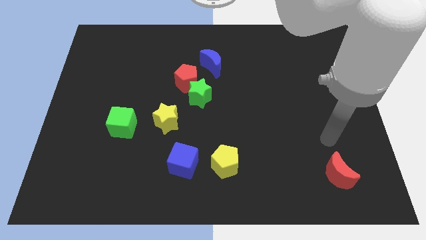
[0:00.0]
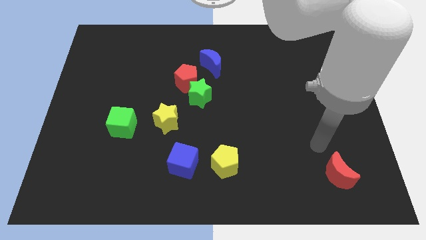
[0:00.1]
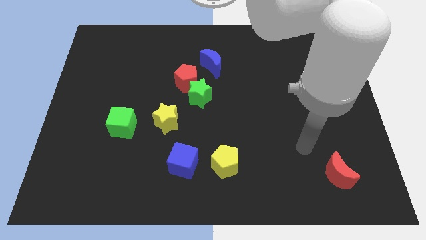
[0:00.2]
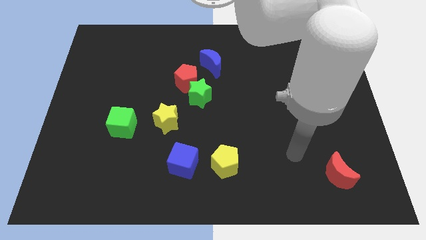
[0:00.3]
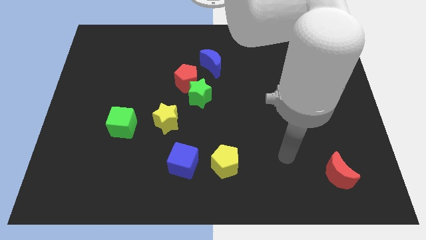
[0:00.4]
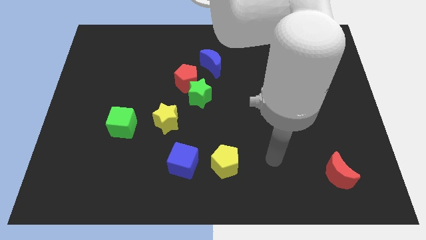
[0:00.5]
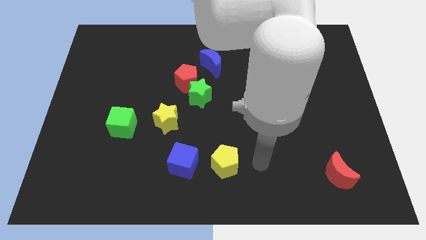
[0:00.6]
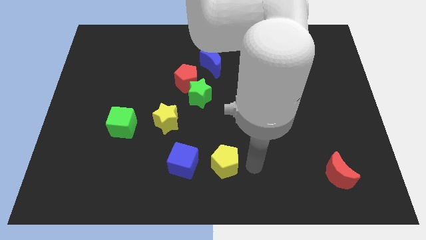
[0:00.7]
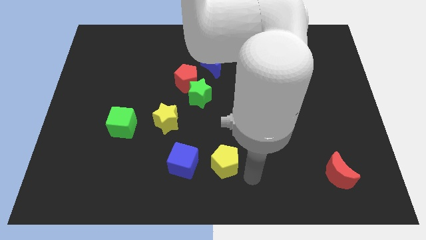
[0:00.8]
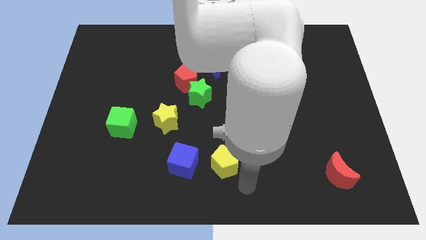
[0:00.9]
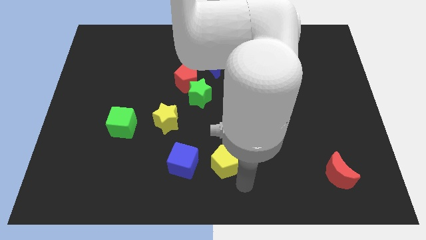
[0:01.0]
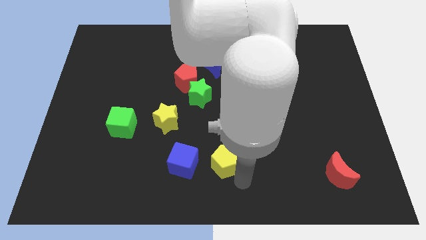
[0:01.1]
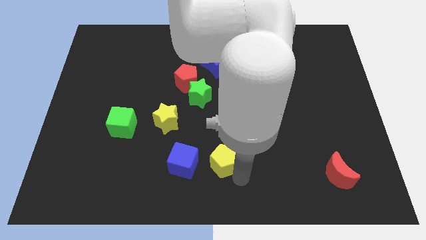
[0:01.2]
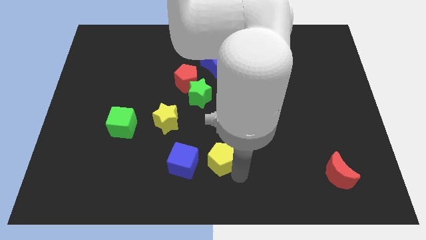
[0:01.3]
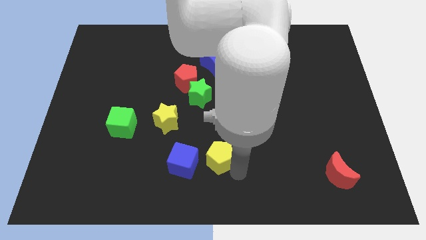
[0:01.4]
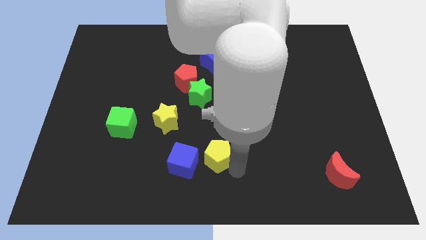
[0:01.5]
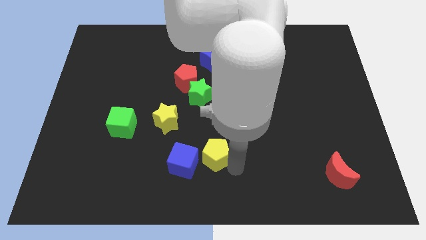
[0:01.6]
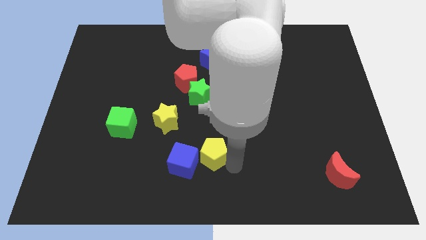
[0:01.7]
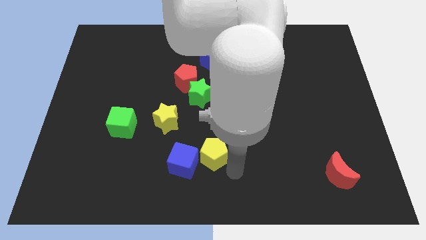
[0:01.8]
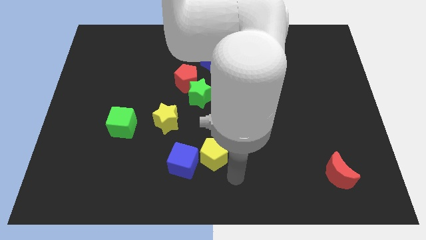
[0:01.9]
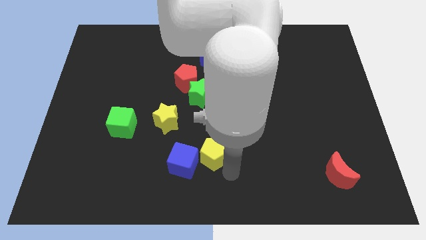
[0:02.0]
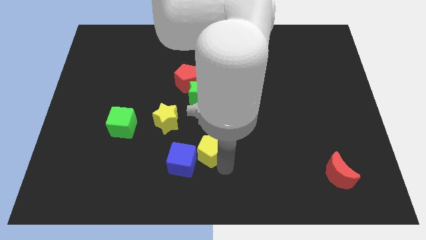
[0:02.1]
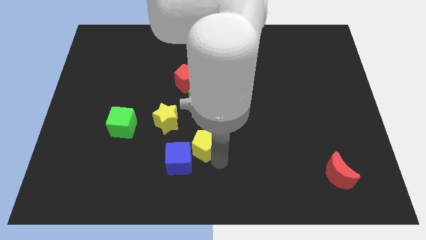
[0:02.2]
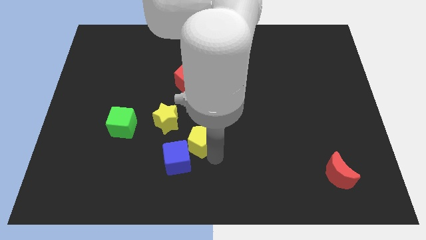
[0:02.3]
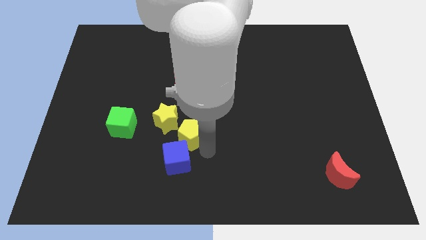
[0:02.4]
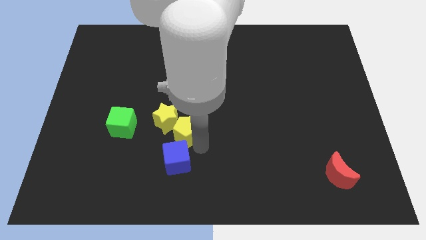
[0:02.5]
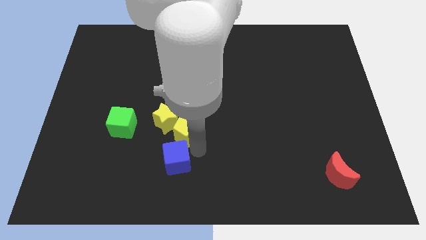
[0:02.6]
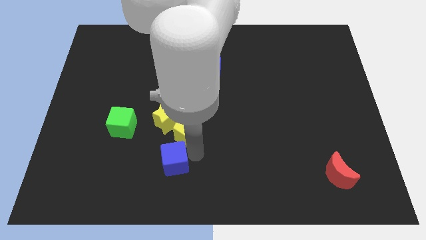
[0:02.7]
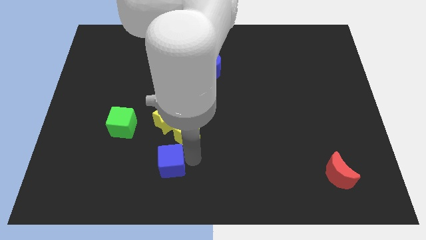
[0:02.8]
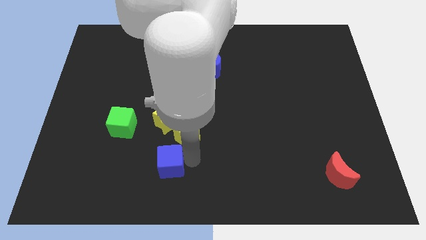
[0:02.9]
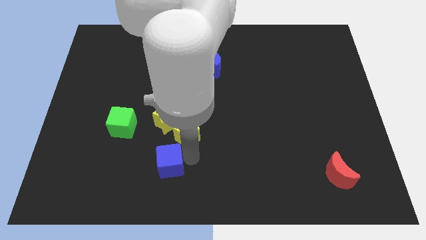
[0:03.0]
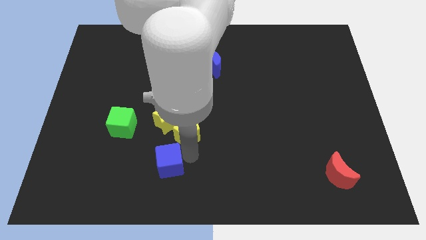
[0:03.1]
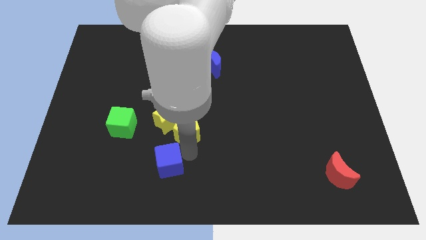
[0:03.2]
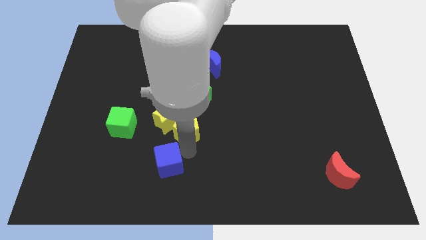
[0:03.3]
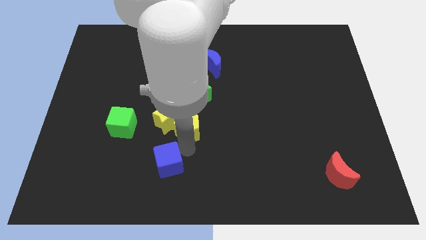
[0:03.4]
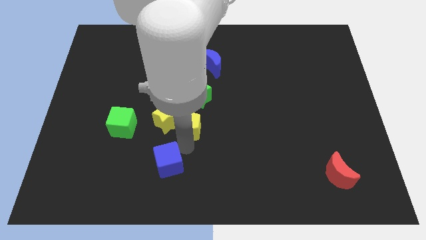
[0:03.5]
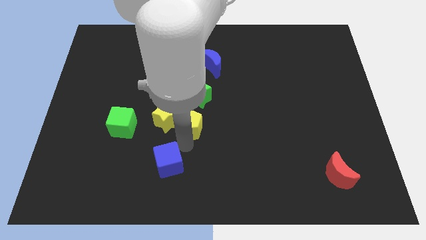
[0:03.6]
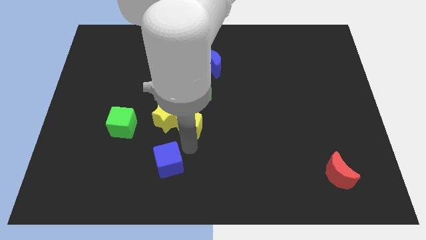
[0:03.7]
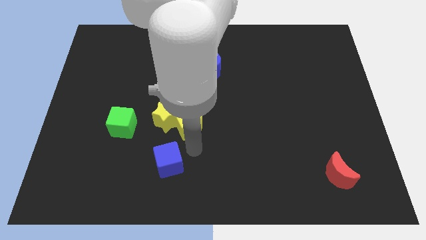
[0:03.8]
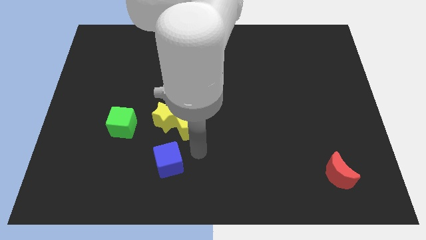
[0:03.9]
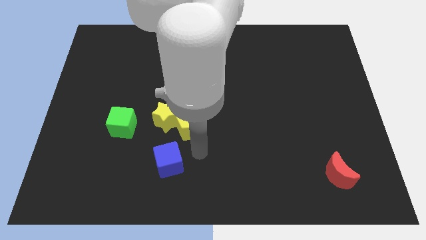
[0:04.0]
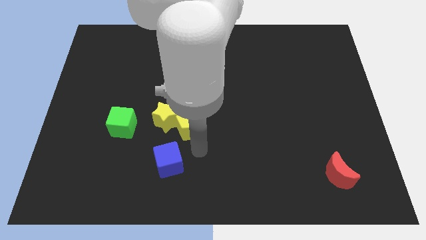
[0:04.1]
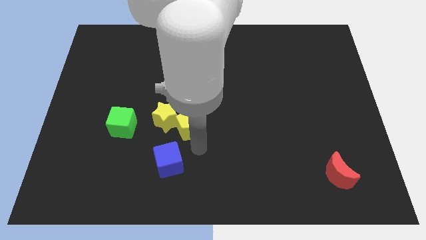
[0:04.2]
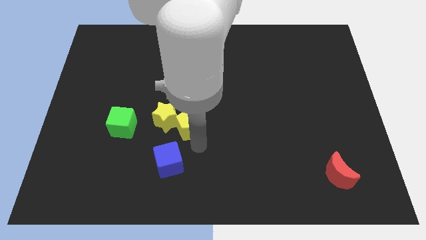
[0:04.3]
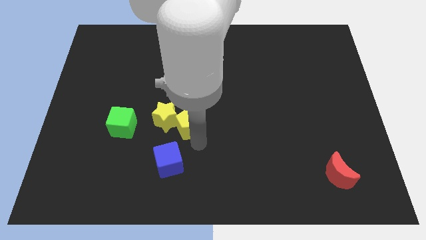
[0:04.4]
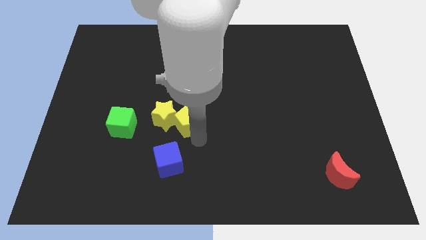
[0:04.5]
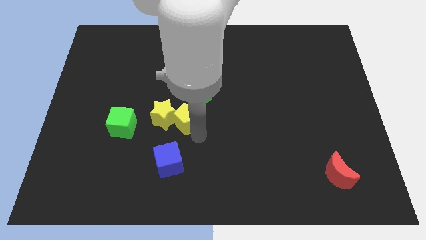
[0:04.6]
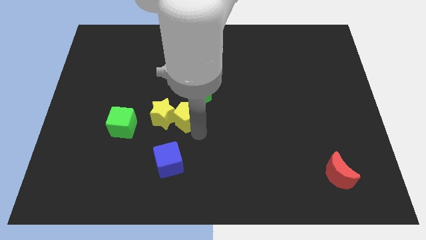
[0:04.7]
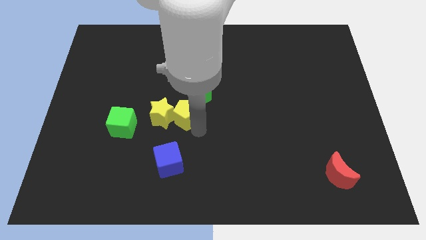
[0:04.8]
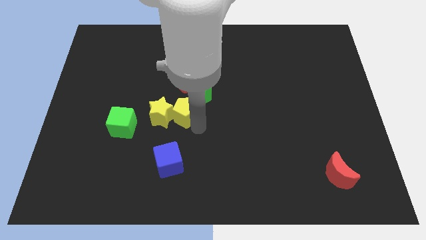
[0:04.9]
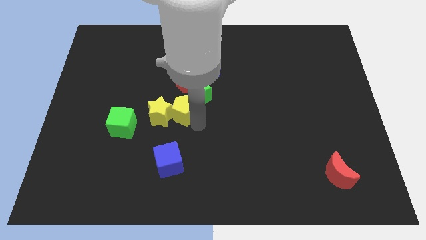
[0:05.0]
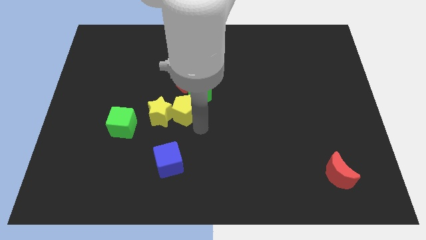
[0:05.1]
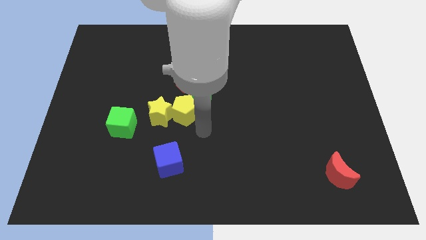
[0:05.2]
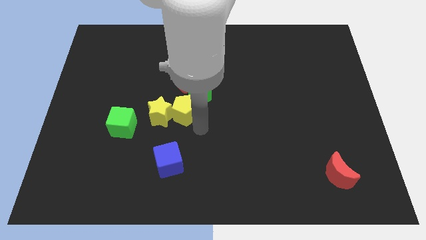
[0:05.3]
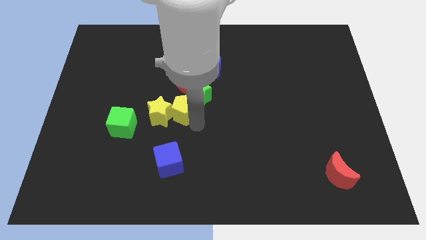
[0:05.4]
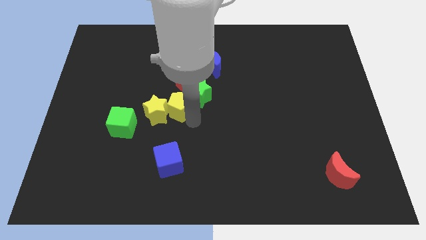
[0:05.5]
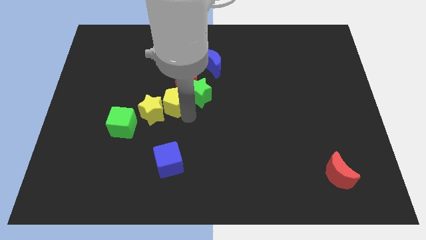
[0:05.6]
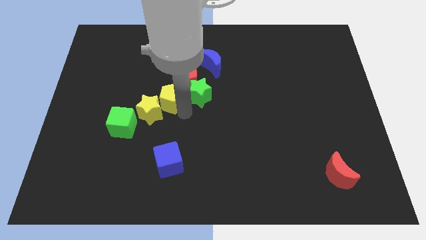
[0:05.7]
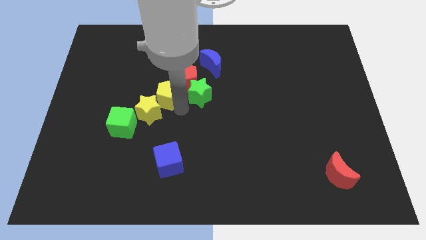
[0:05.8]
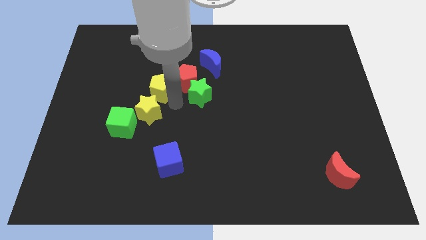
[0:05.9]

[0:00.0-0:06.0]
move the yellow pentagon just left of the red pentagon

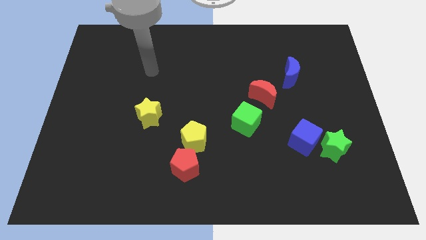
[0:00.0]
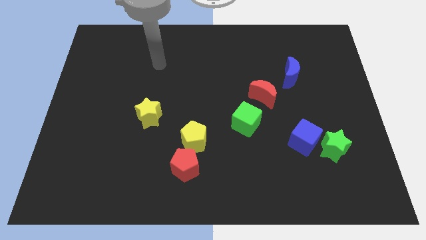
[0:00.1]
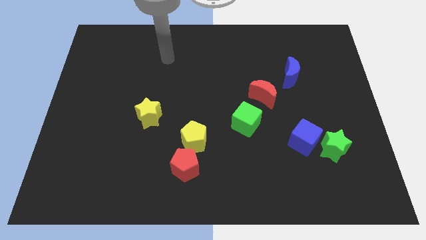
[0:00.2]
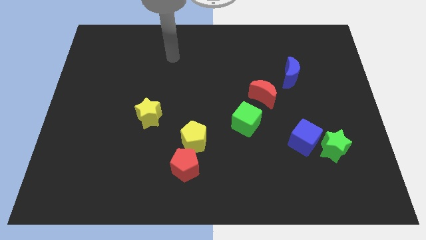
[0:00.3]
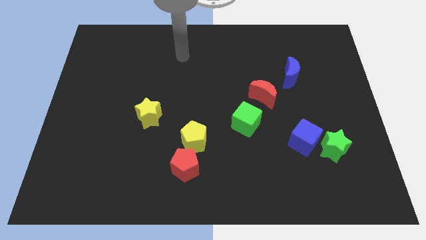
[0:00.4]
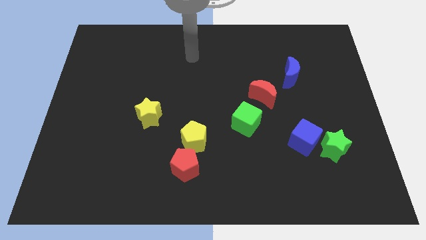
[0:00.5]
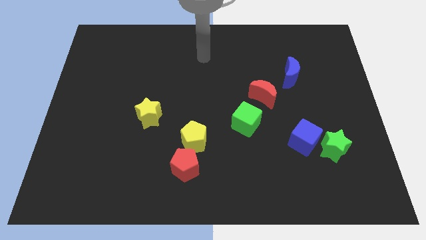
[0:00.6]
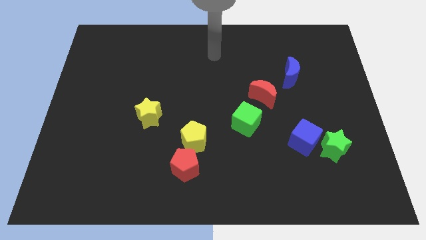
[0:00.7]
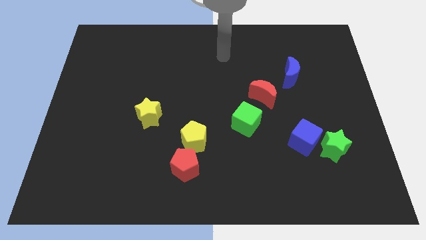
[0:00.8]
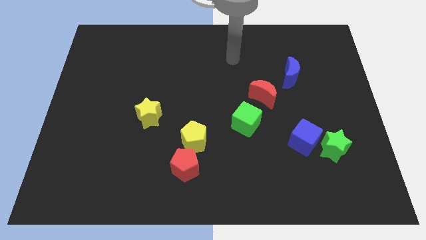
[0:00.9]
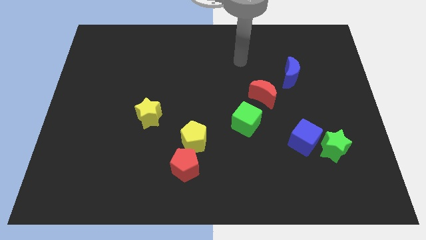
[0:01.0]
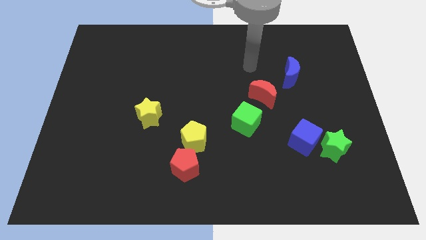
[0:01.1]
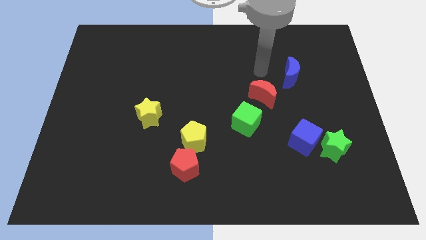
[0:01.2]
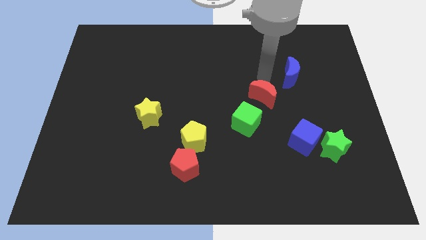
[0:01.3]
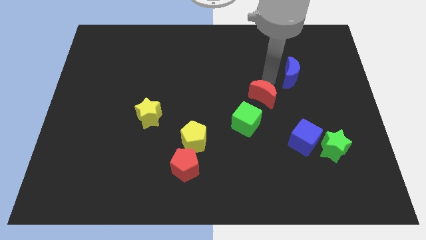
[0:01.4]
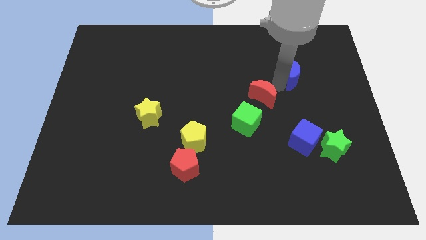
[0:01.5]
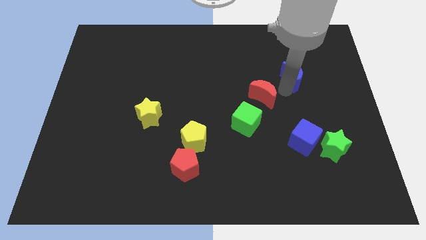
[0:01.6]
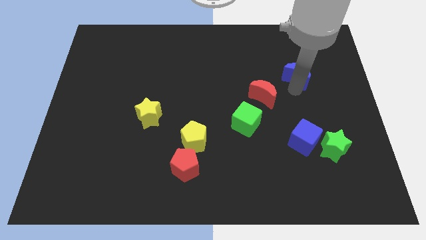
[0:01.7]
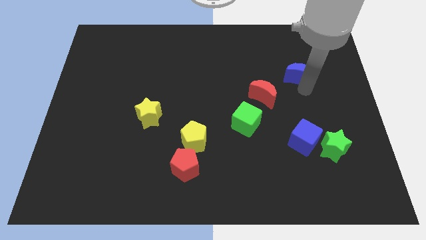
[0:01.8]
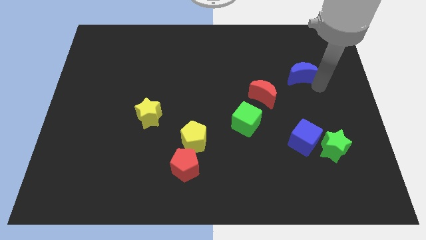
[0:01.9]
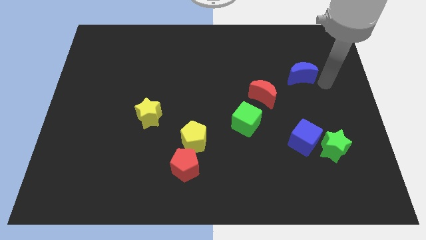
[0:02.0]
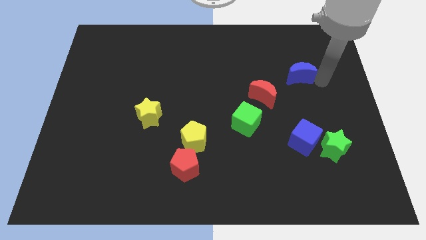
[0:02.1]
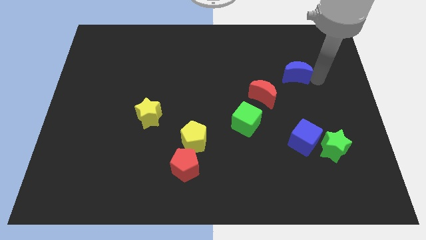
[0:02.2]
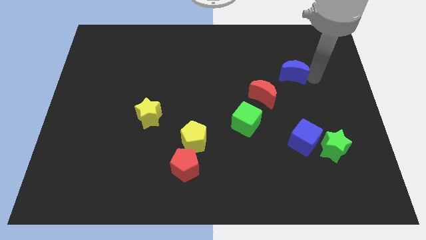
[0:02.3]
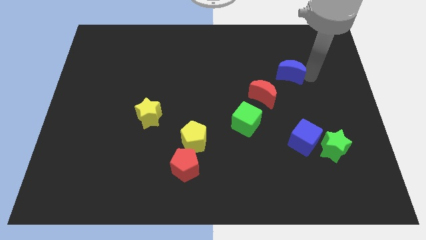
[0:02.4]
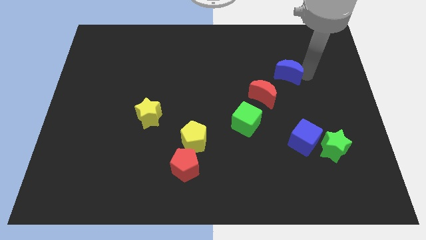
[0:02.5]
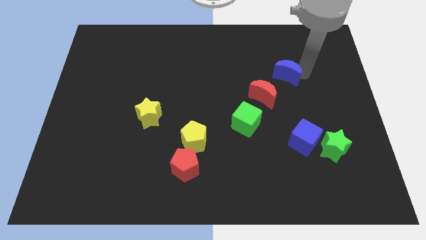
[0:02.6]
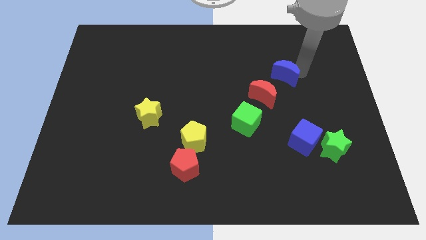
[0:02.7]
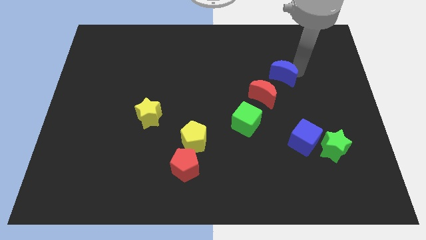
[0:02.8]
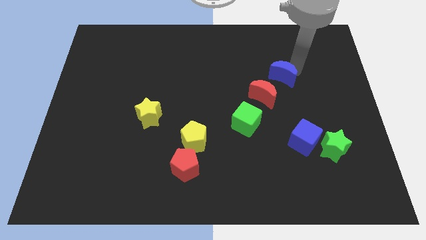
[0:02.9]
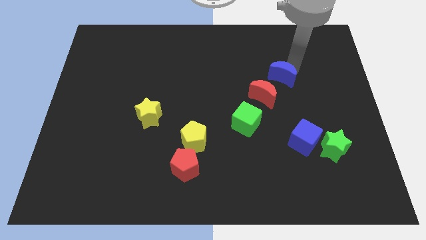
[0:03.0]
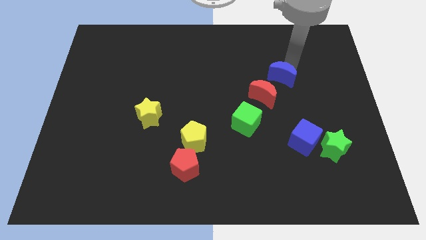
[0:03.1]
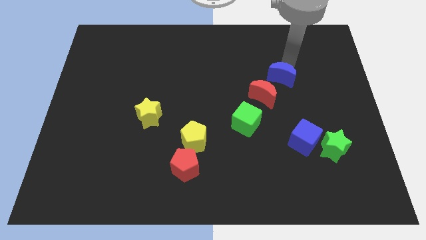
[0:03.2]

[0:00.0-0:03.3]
push the blue moon to the top of the red moon
